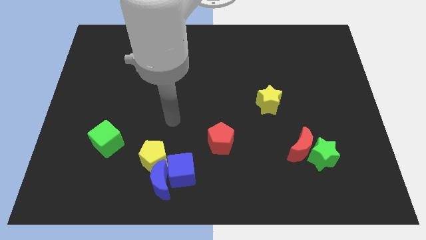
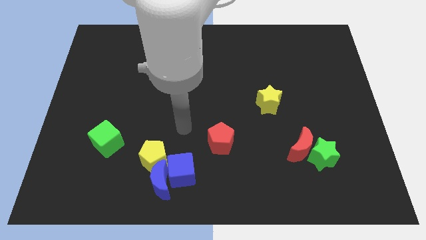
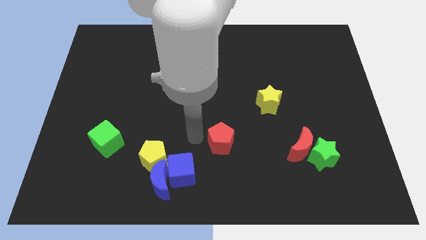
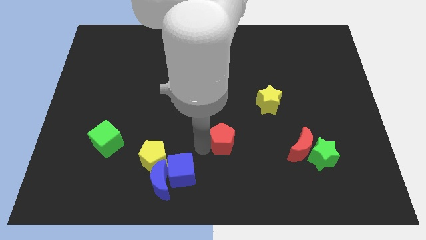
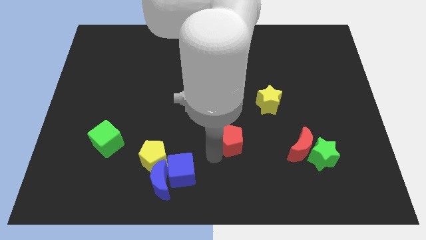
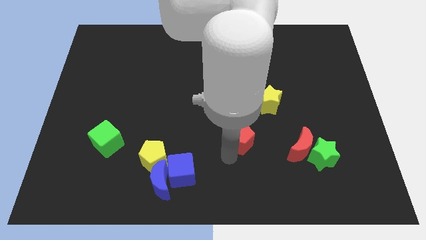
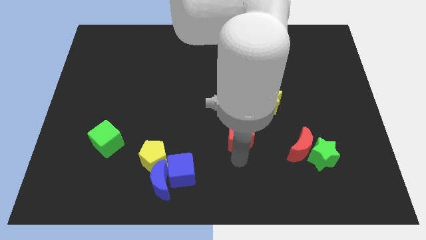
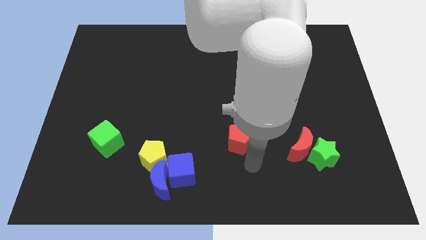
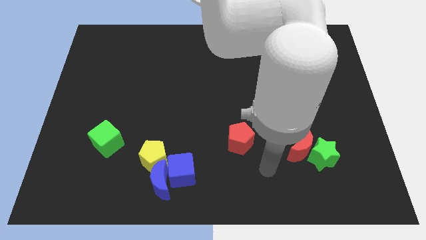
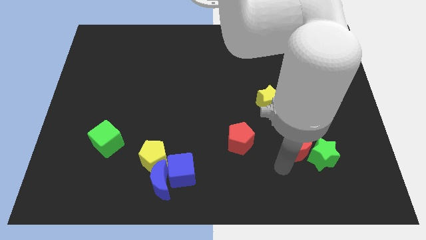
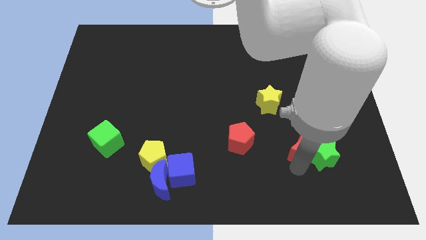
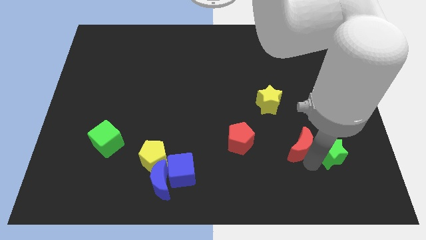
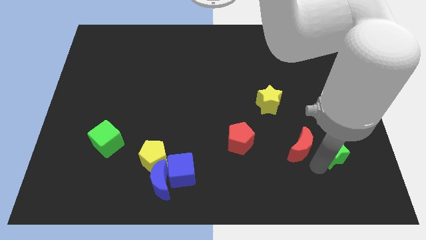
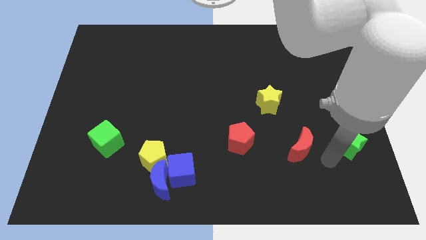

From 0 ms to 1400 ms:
separate the red moon from the green star

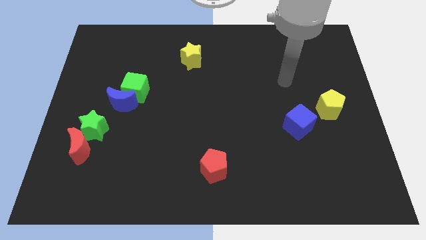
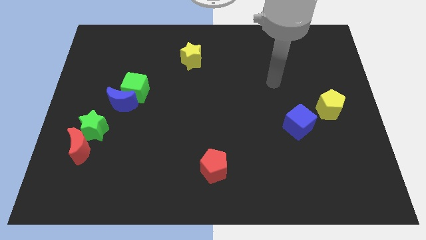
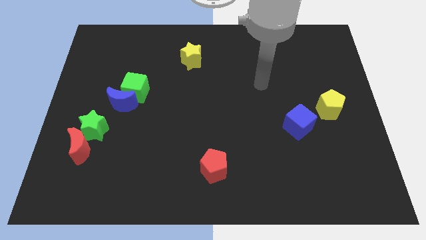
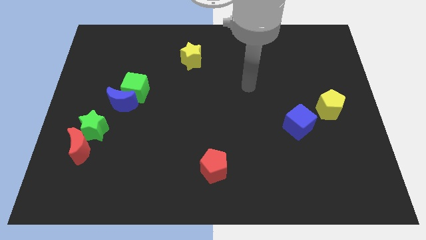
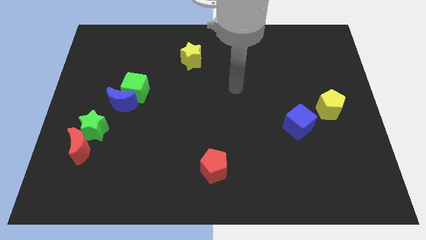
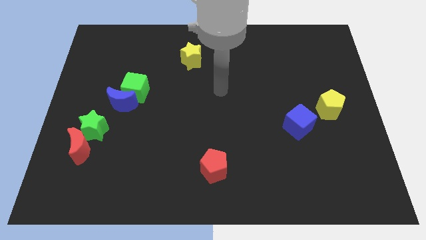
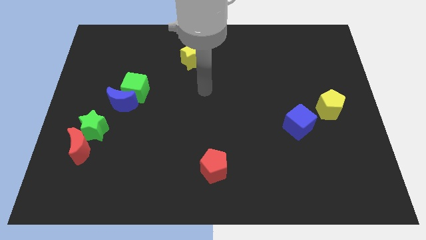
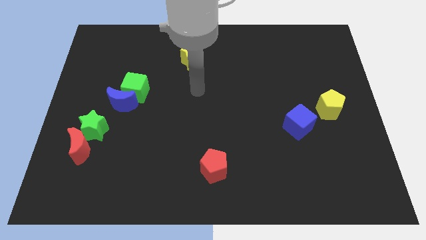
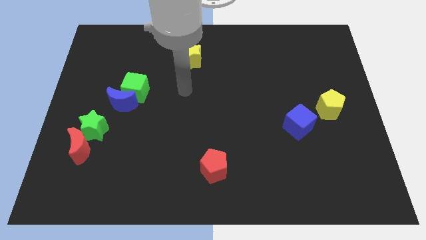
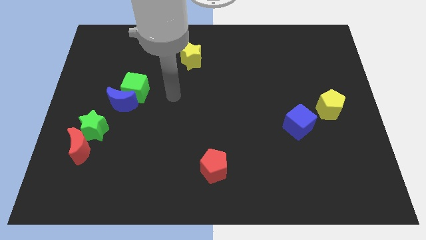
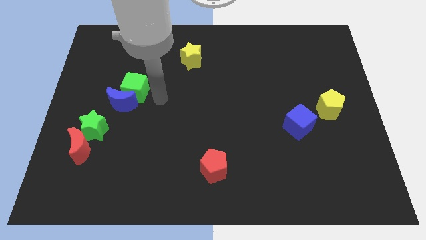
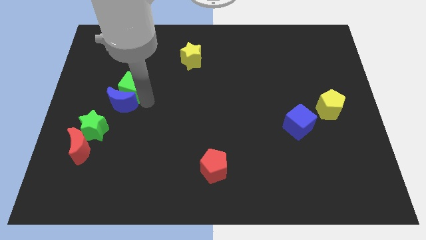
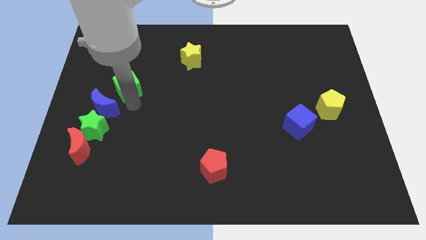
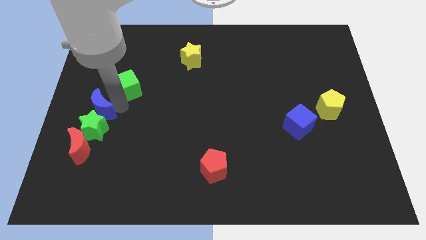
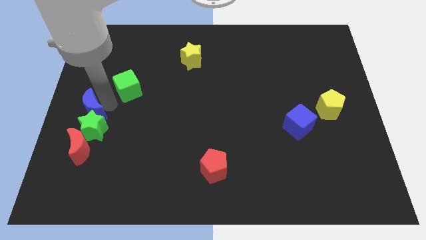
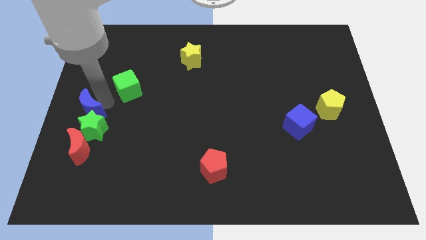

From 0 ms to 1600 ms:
pull the green cube apart from the blue moon

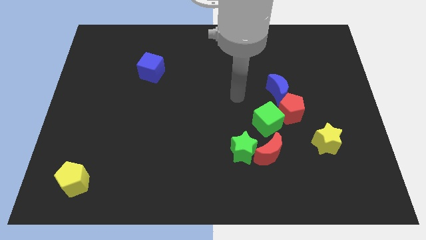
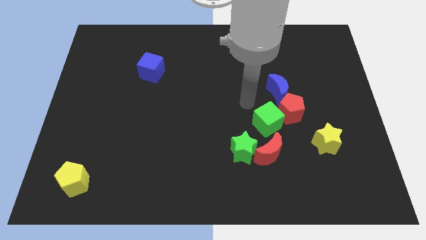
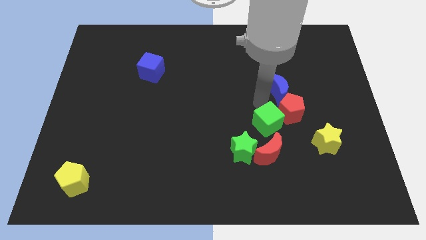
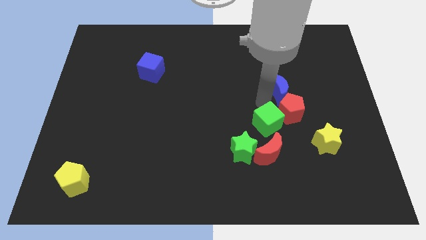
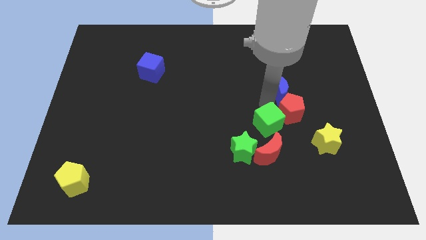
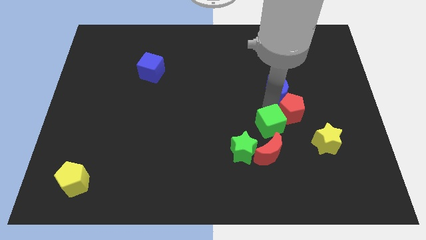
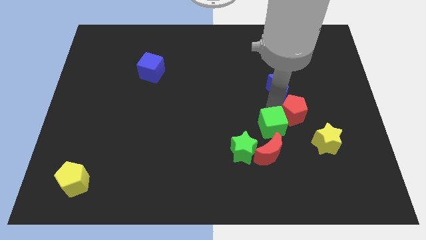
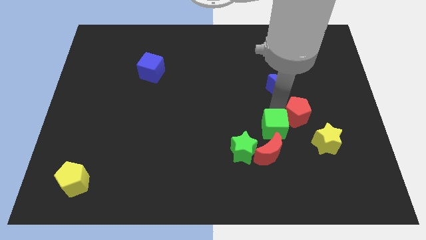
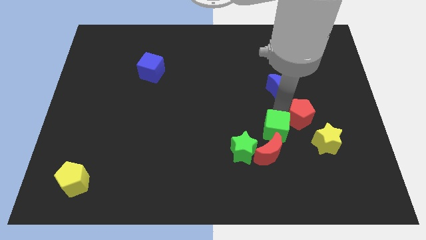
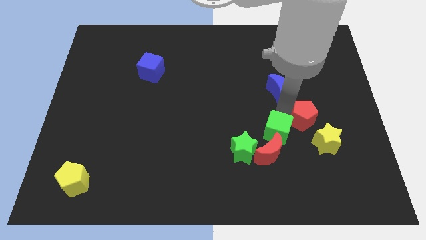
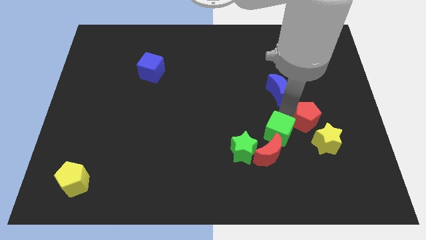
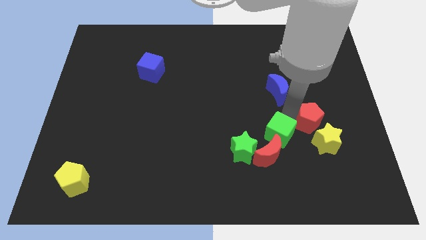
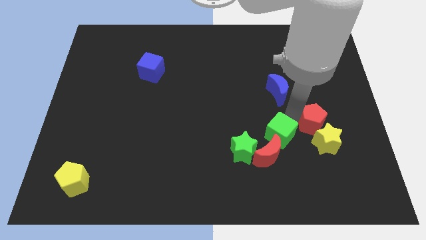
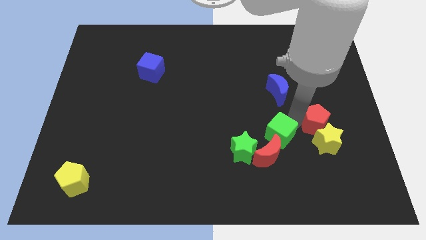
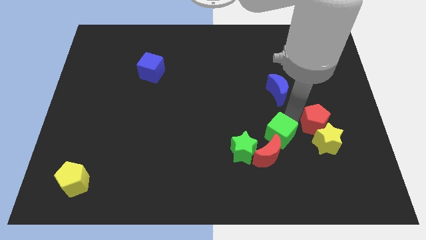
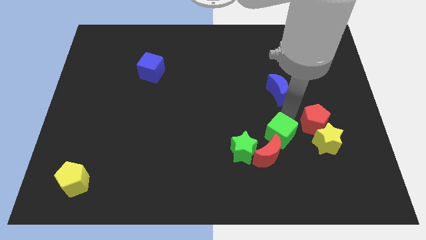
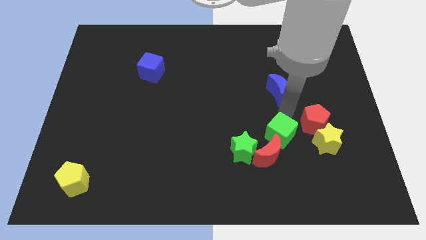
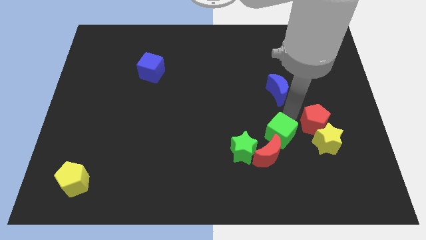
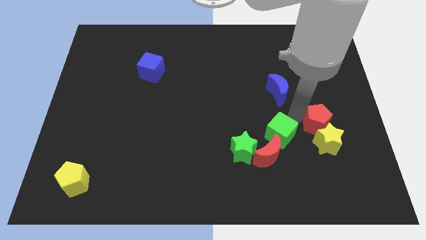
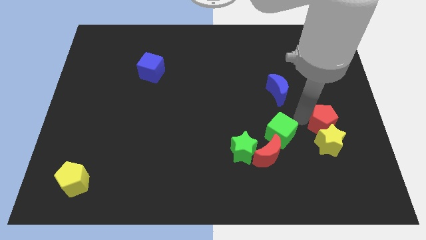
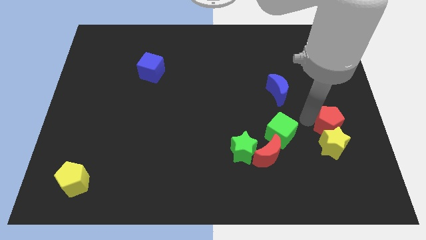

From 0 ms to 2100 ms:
move the red pentagon away from the green cube and blue moon

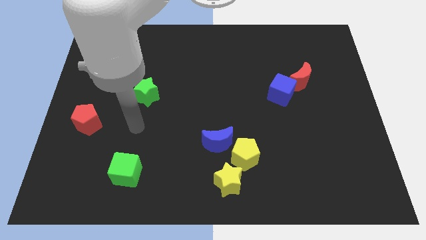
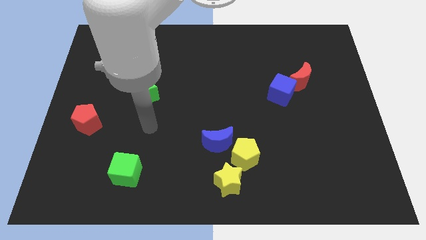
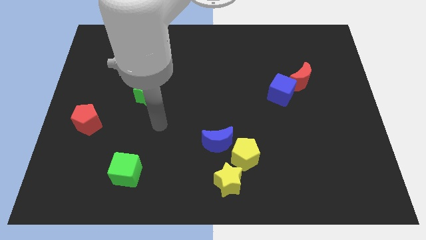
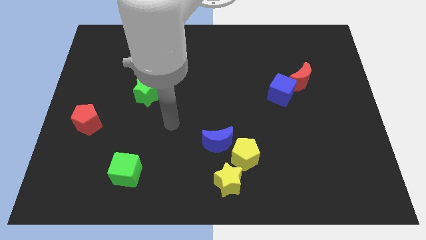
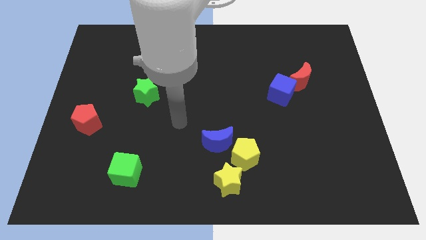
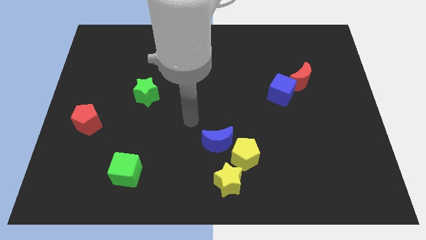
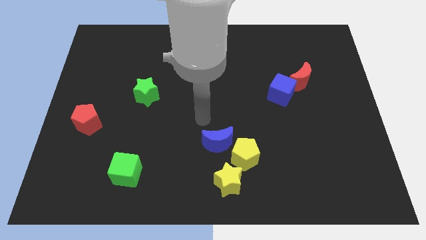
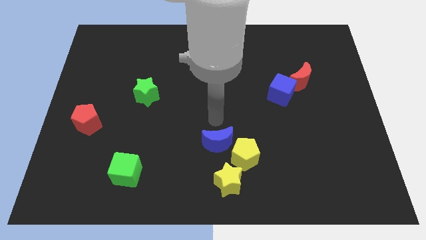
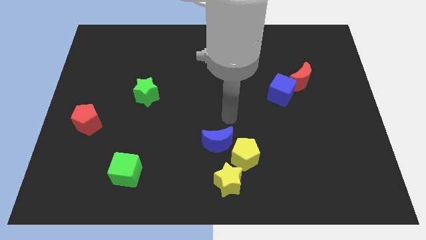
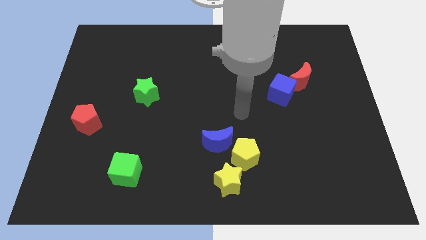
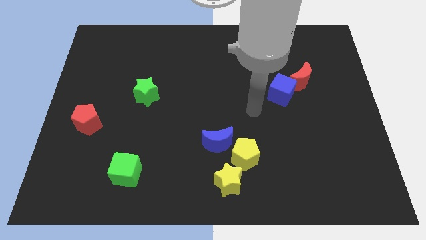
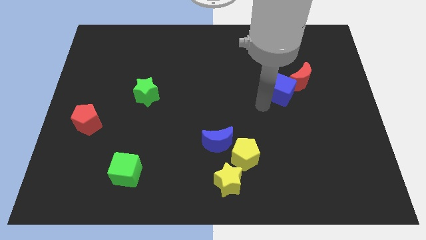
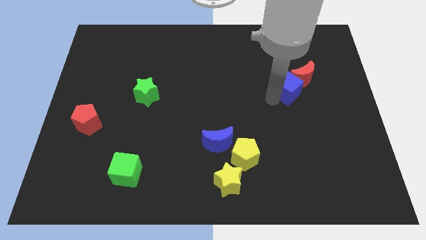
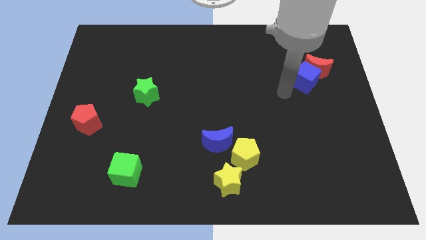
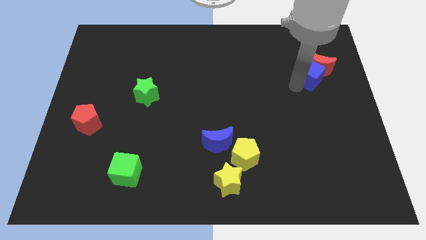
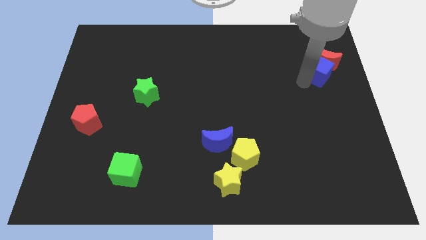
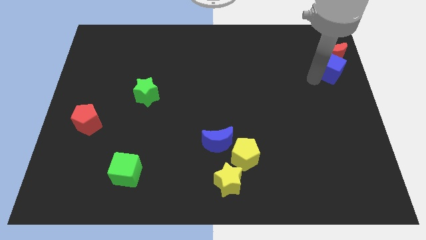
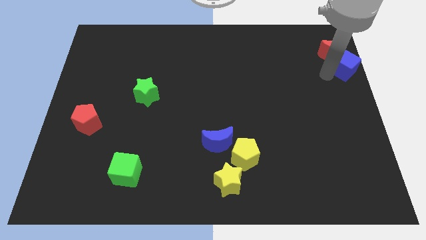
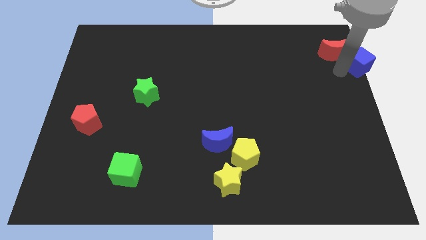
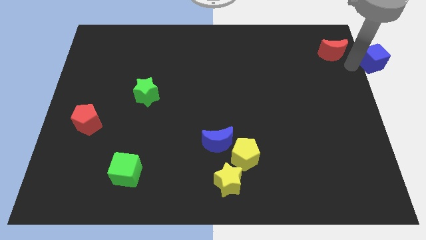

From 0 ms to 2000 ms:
separate the red moon from the blue cube

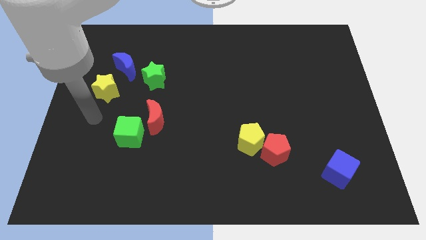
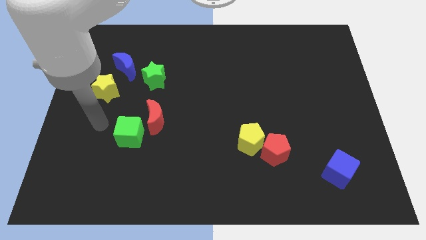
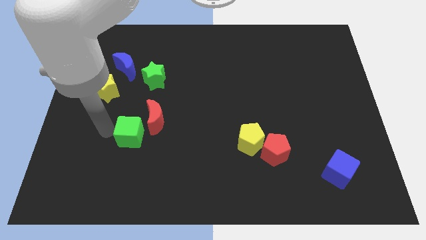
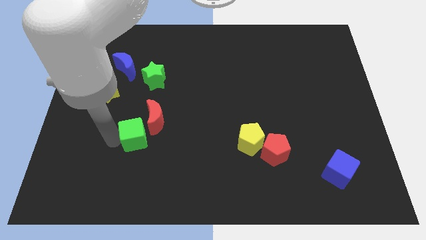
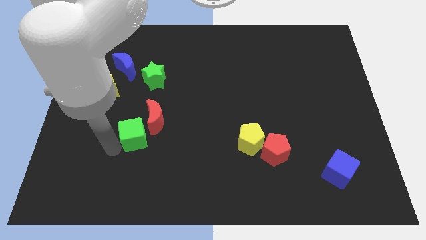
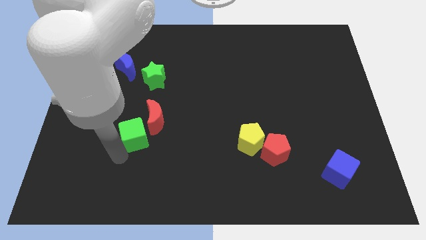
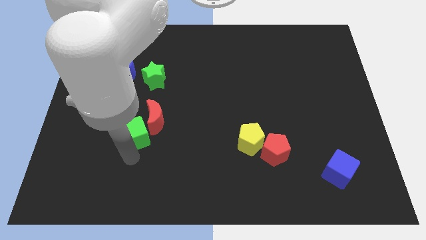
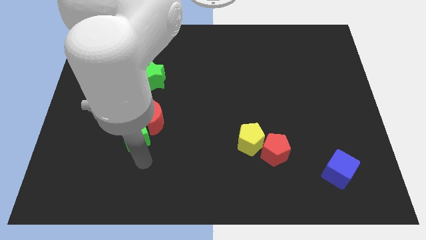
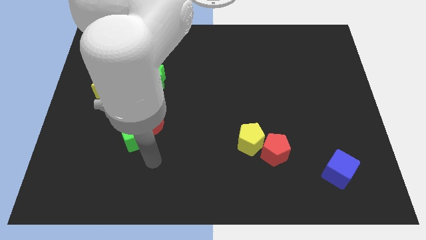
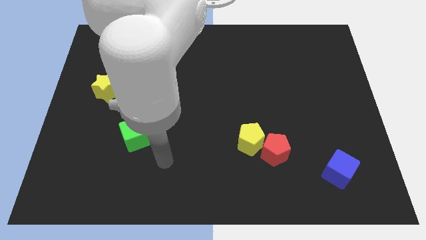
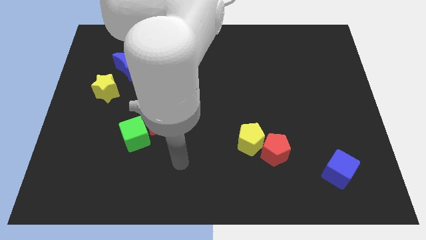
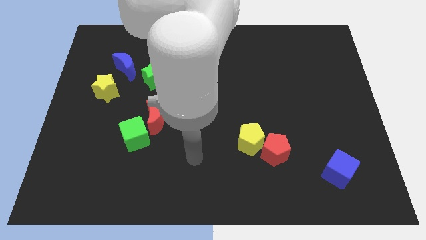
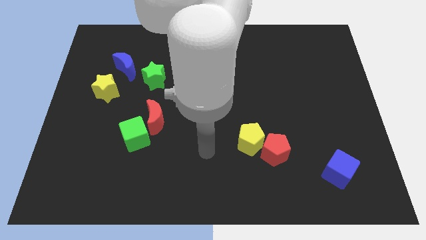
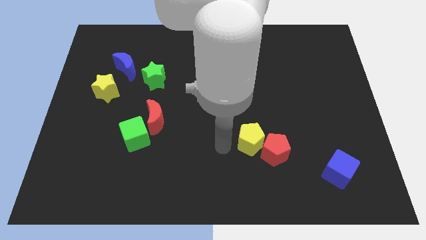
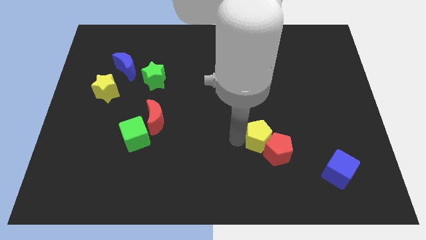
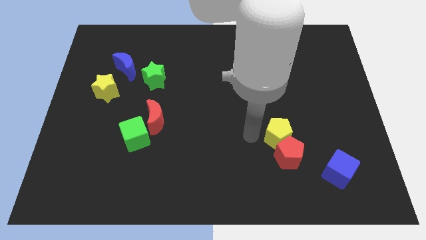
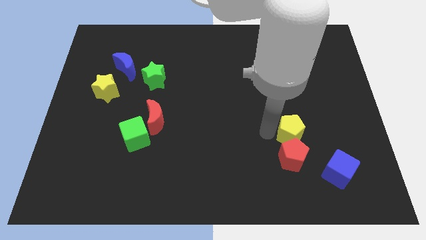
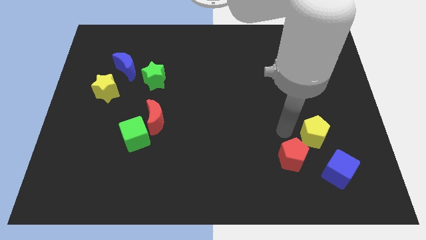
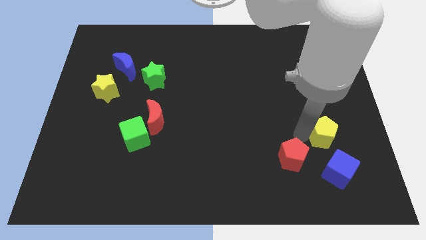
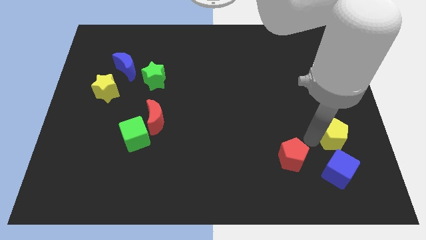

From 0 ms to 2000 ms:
pull the red pentagon apart from the yellow pentagon

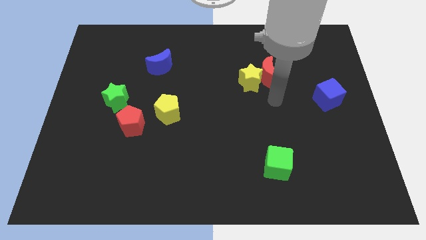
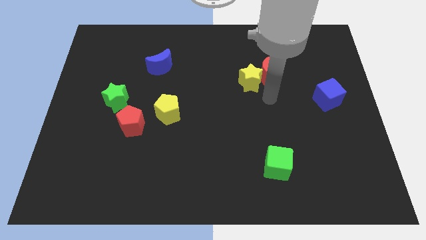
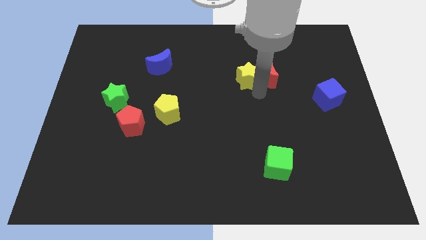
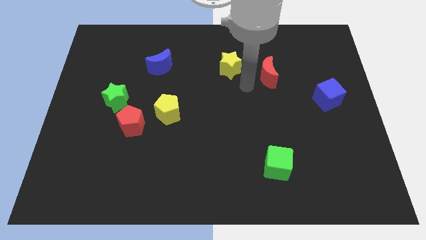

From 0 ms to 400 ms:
separate the red moon from the yellow star
